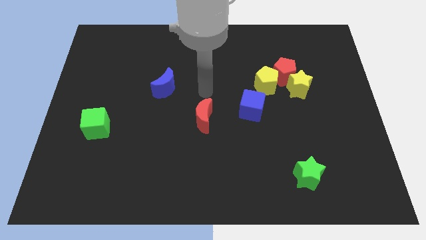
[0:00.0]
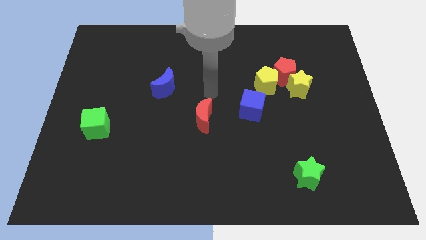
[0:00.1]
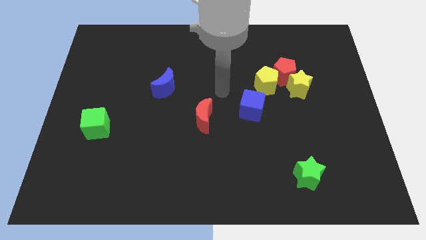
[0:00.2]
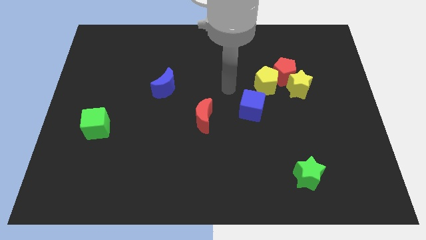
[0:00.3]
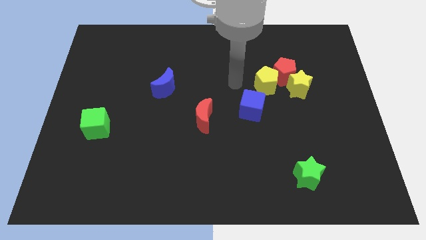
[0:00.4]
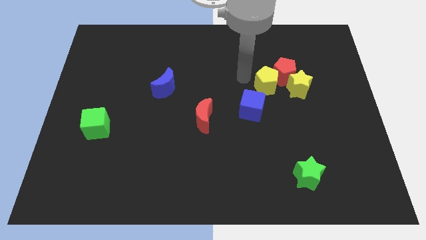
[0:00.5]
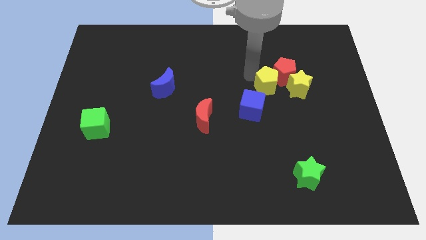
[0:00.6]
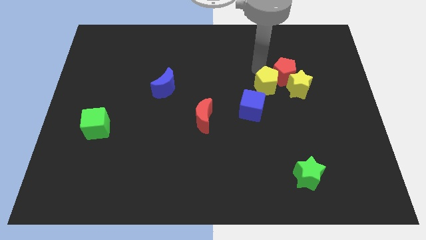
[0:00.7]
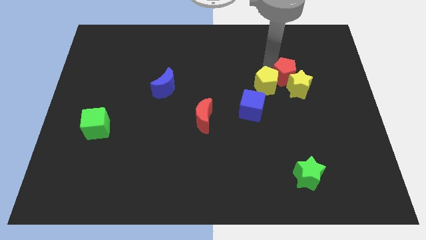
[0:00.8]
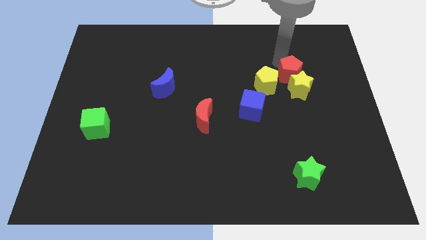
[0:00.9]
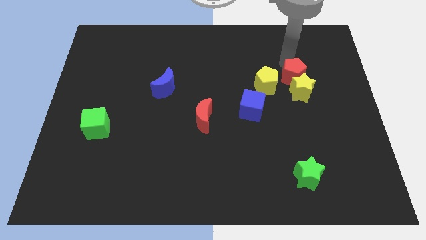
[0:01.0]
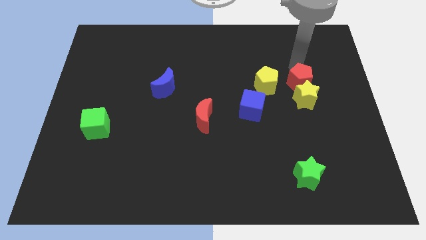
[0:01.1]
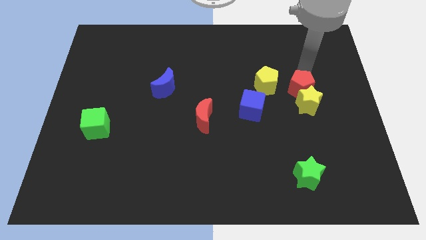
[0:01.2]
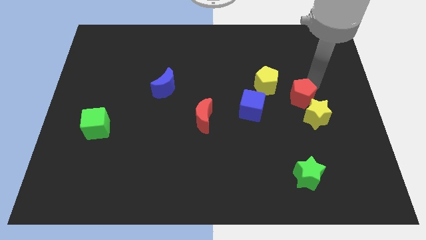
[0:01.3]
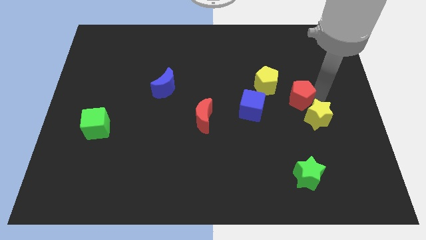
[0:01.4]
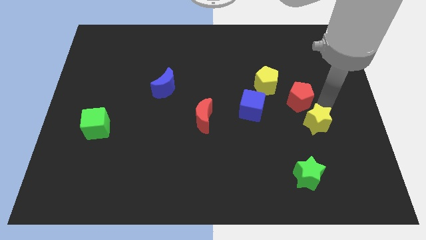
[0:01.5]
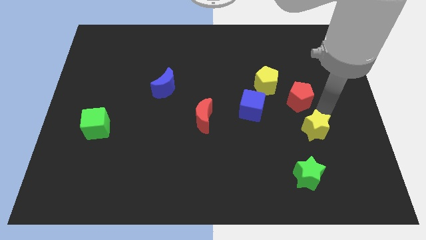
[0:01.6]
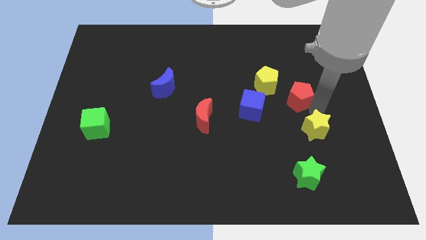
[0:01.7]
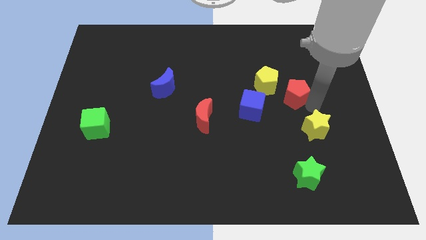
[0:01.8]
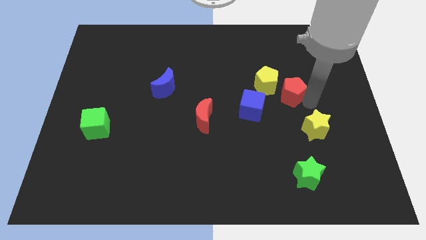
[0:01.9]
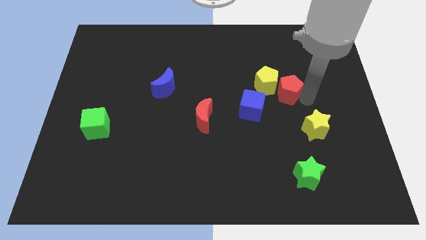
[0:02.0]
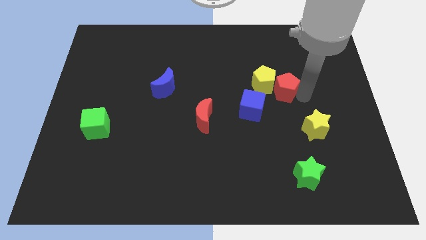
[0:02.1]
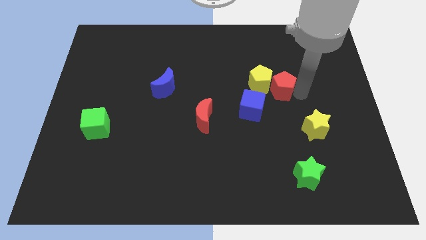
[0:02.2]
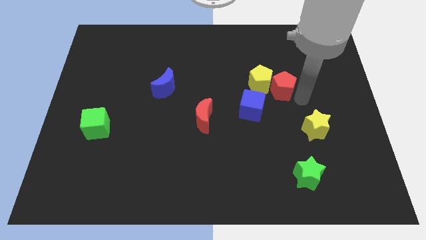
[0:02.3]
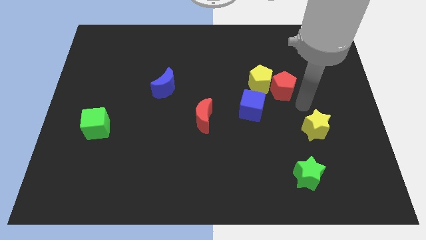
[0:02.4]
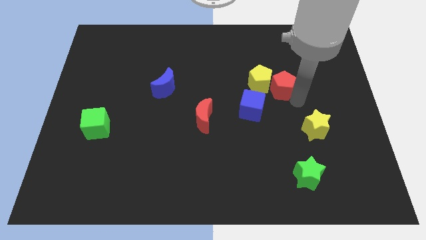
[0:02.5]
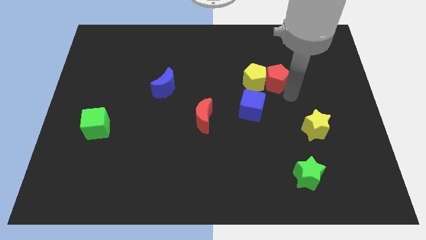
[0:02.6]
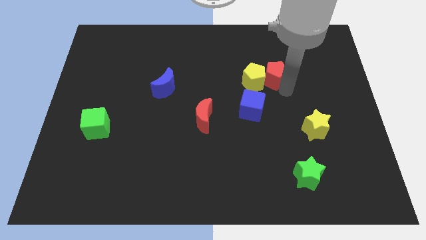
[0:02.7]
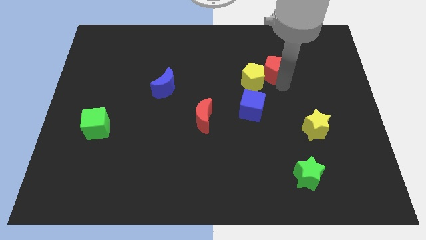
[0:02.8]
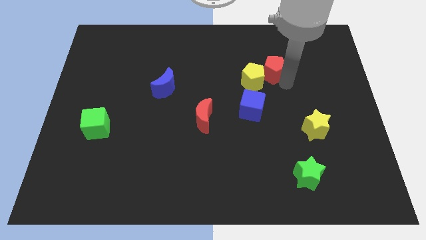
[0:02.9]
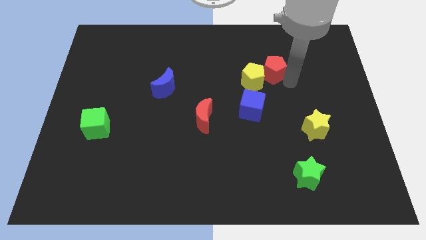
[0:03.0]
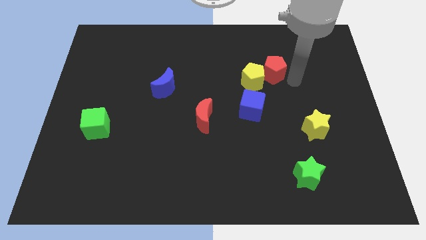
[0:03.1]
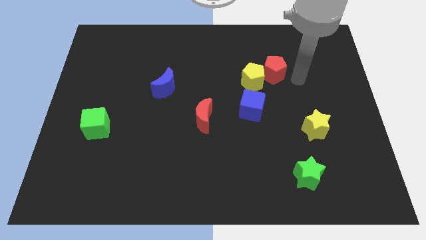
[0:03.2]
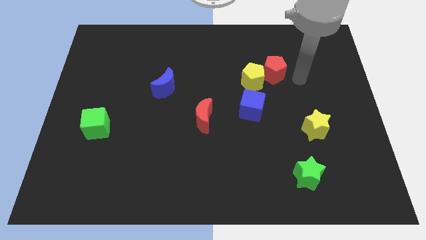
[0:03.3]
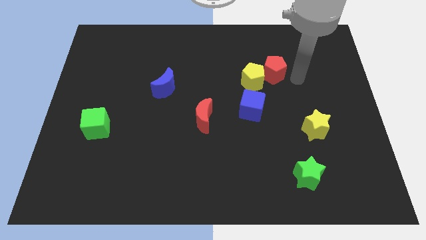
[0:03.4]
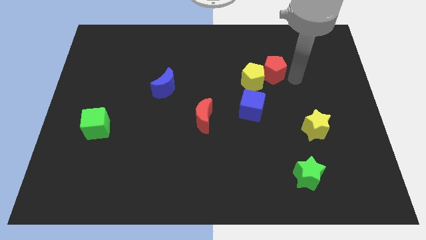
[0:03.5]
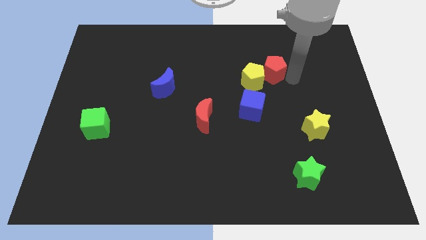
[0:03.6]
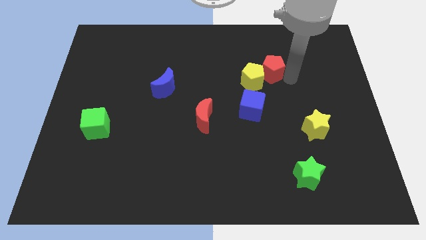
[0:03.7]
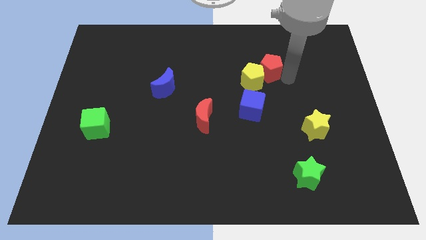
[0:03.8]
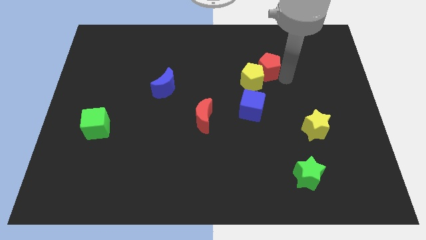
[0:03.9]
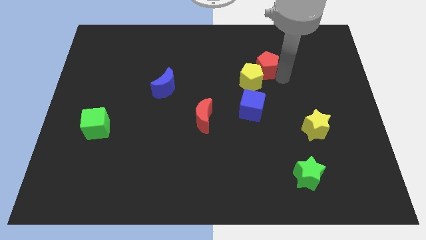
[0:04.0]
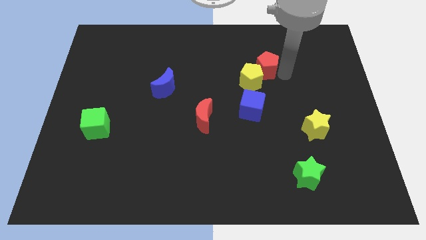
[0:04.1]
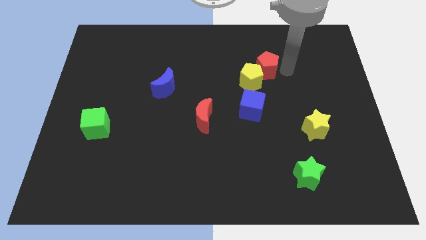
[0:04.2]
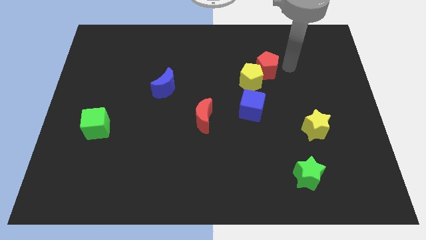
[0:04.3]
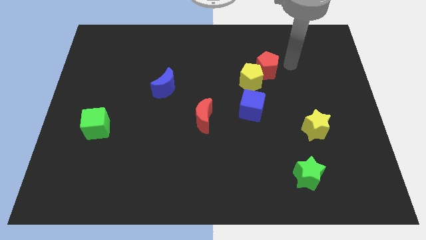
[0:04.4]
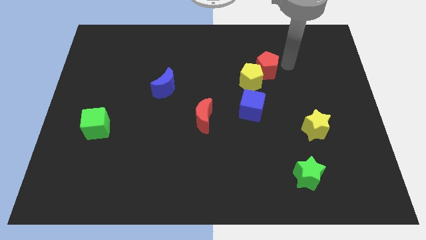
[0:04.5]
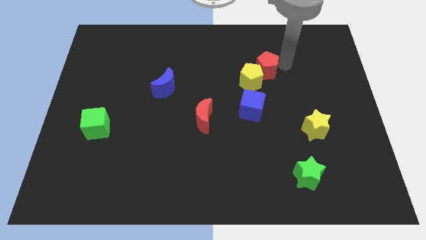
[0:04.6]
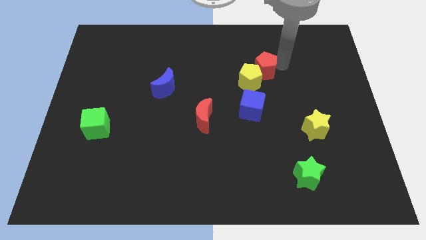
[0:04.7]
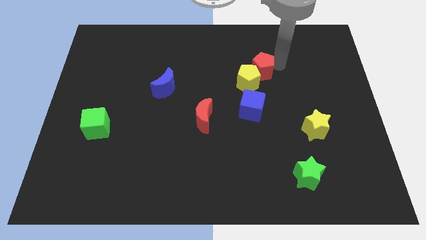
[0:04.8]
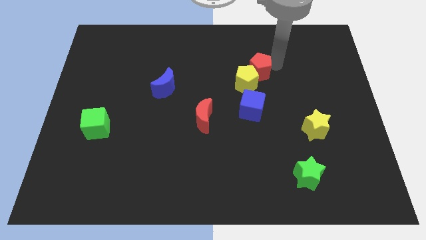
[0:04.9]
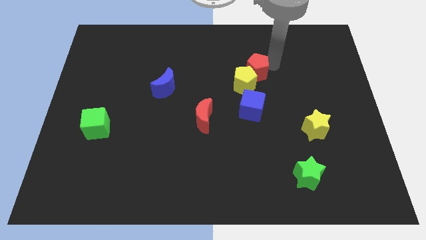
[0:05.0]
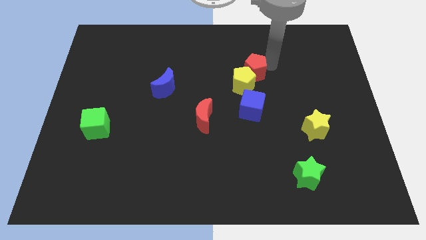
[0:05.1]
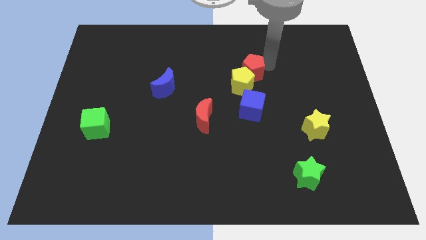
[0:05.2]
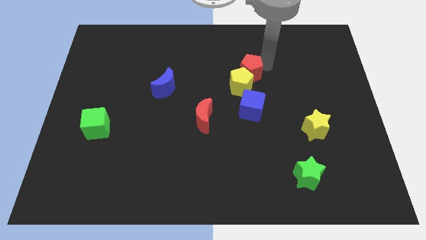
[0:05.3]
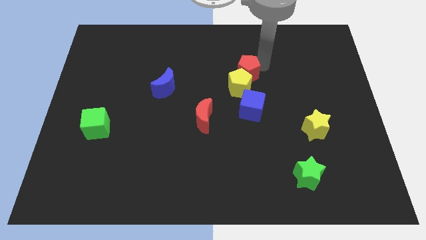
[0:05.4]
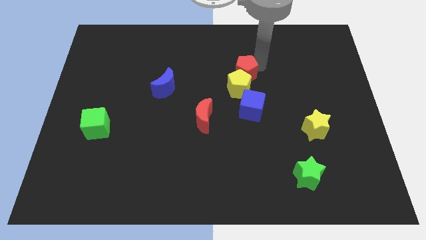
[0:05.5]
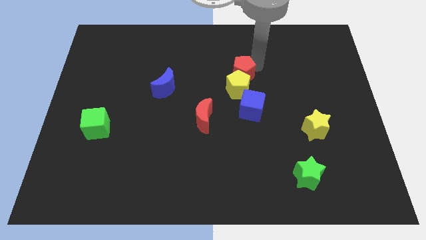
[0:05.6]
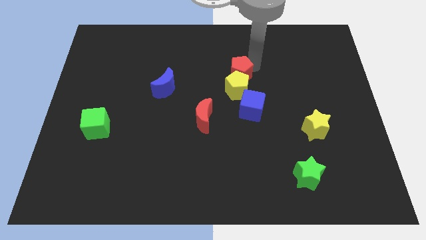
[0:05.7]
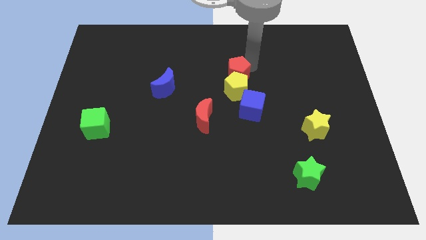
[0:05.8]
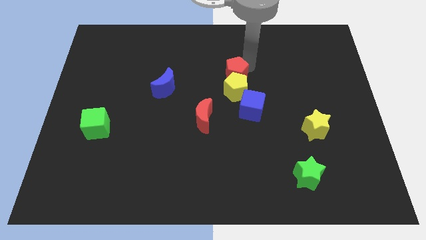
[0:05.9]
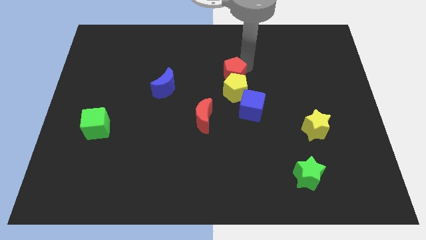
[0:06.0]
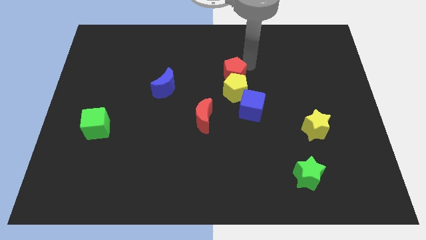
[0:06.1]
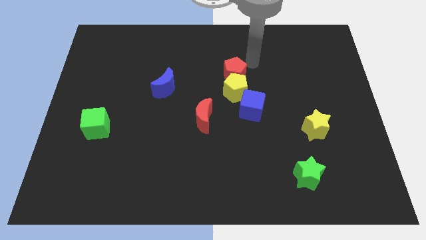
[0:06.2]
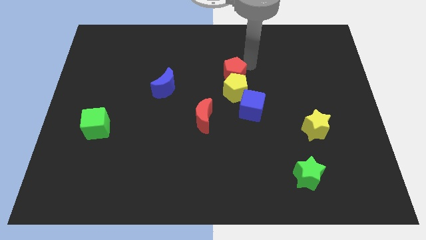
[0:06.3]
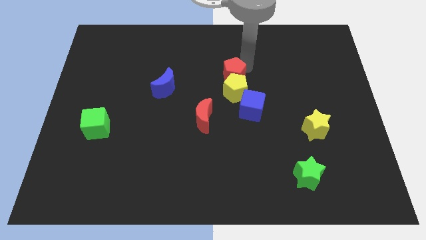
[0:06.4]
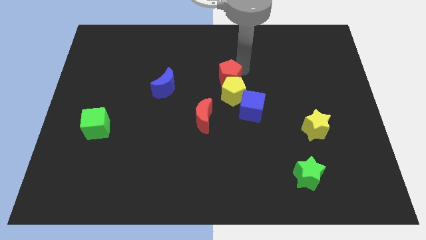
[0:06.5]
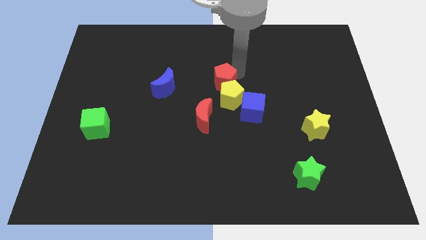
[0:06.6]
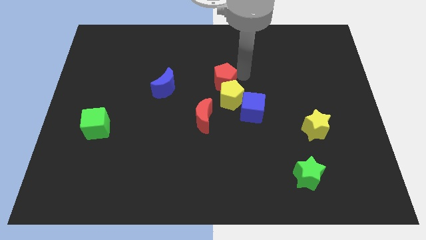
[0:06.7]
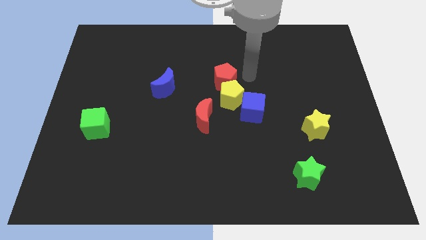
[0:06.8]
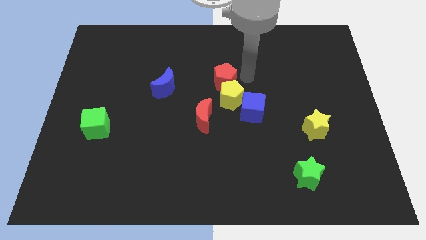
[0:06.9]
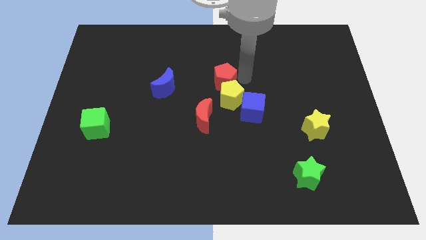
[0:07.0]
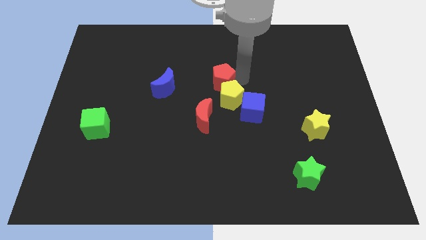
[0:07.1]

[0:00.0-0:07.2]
slide the red pentagon above the red moon

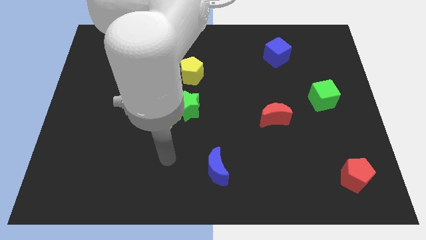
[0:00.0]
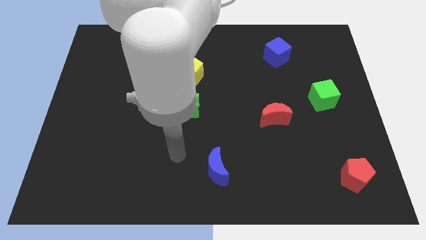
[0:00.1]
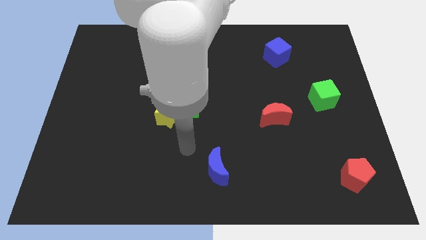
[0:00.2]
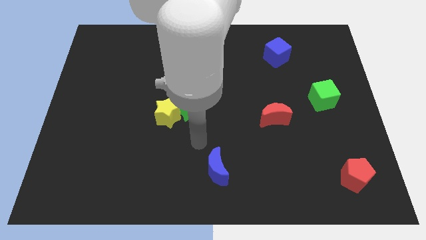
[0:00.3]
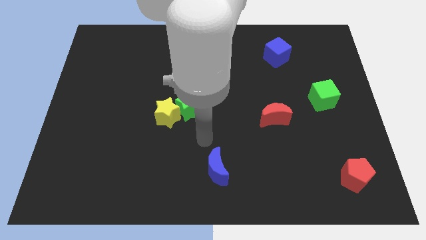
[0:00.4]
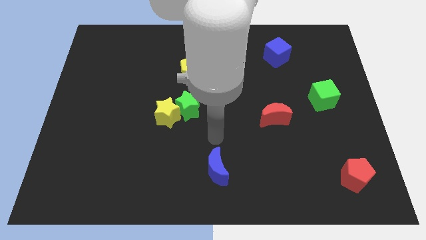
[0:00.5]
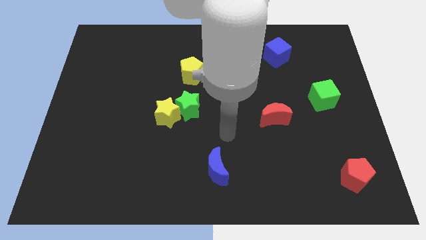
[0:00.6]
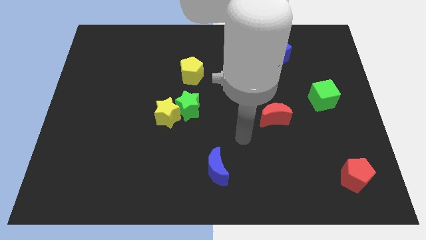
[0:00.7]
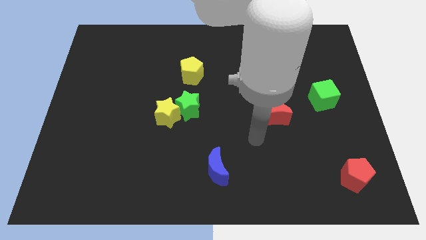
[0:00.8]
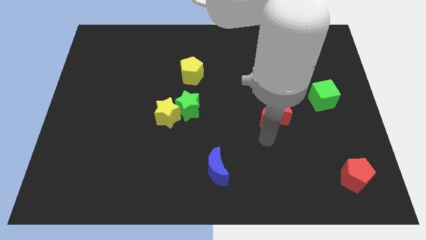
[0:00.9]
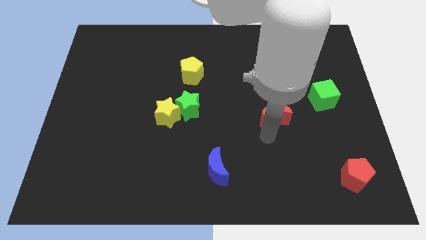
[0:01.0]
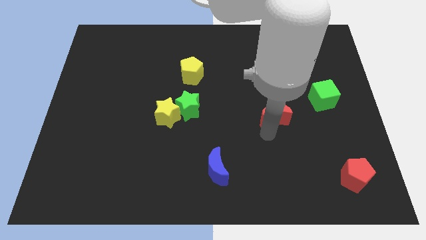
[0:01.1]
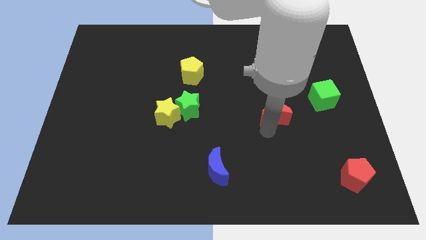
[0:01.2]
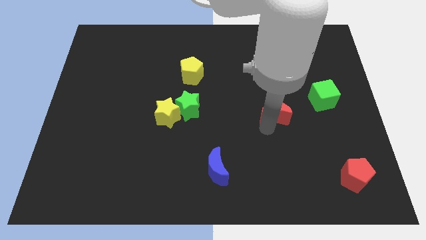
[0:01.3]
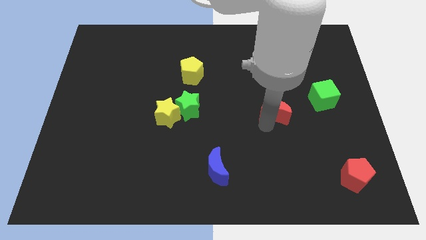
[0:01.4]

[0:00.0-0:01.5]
slide the red moon to the left of the green cube
